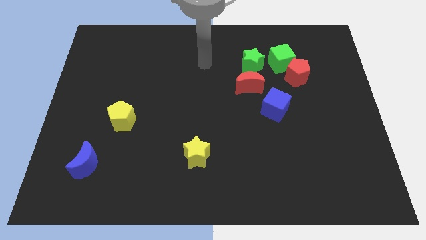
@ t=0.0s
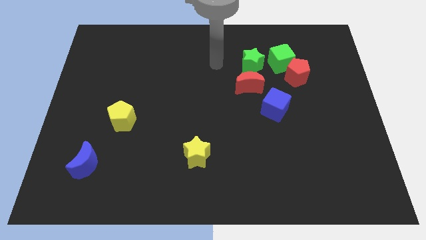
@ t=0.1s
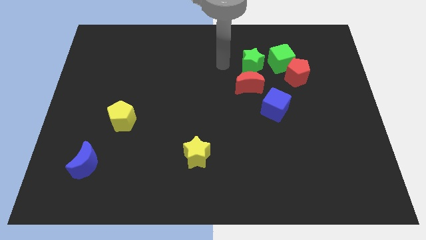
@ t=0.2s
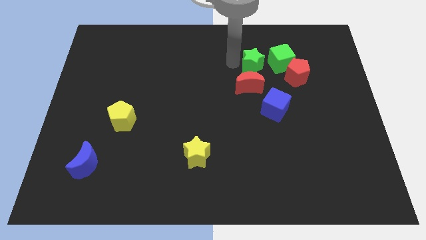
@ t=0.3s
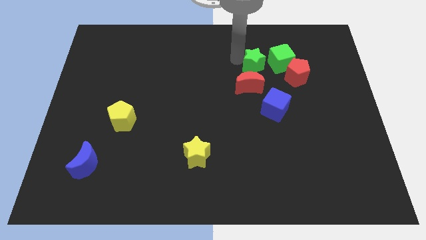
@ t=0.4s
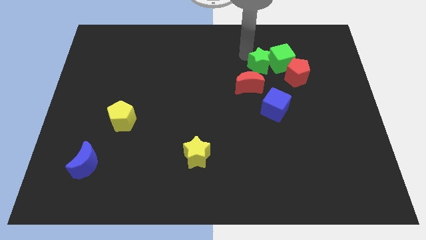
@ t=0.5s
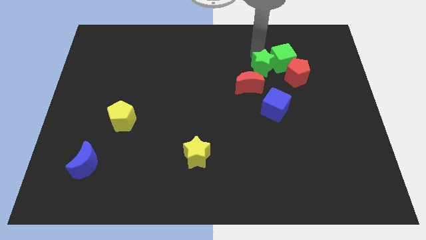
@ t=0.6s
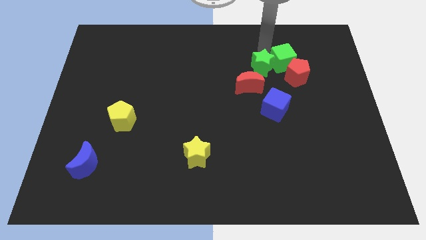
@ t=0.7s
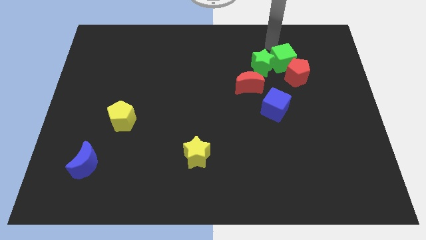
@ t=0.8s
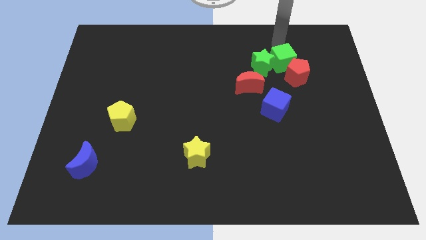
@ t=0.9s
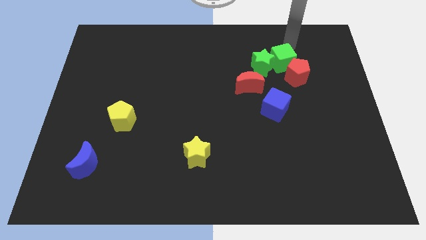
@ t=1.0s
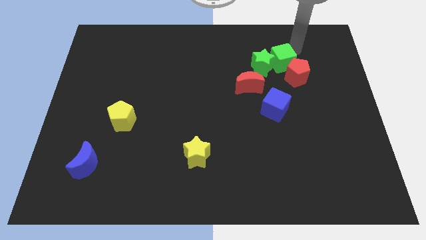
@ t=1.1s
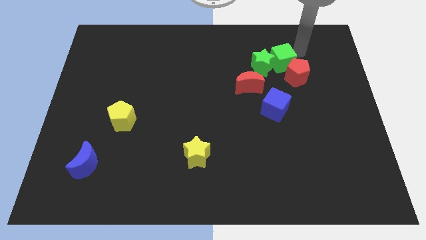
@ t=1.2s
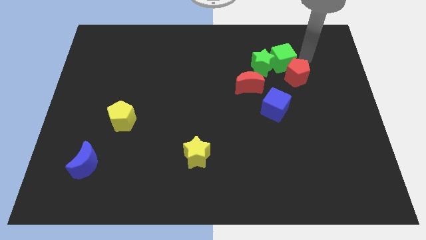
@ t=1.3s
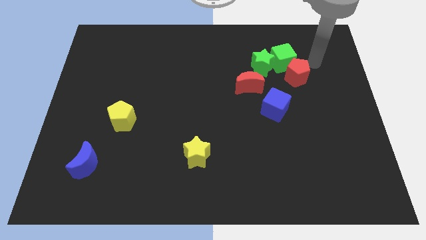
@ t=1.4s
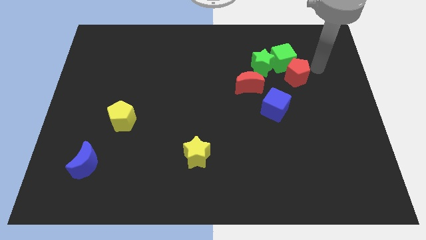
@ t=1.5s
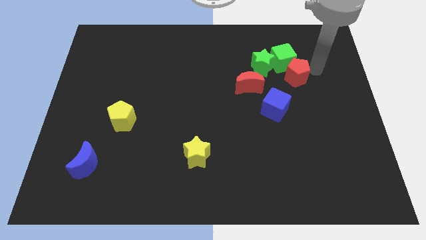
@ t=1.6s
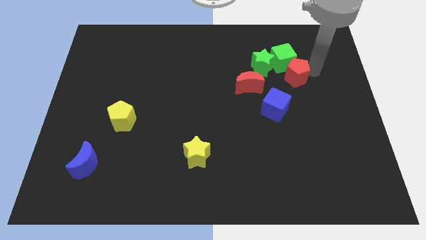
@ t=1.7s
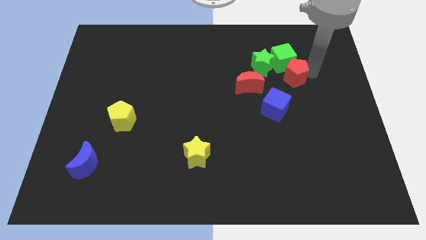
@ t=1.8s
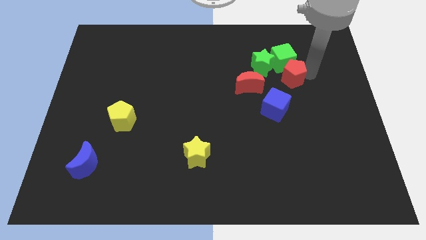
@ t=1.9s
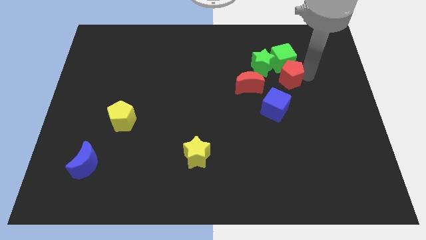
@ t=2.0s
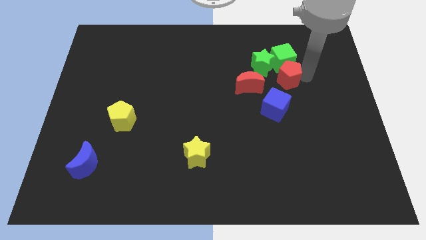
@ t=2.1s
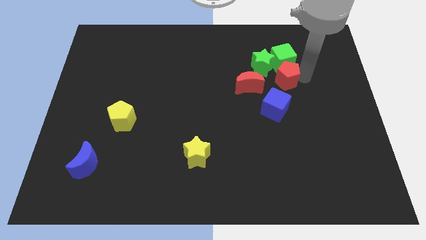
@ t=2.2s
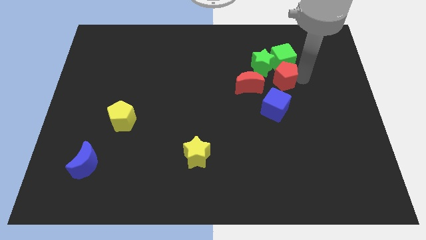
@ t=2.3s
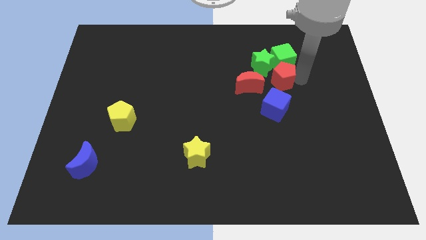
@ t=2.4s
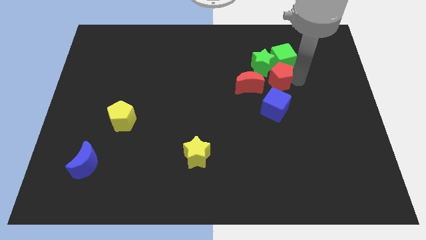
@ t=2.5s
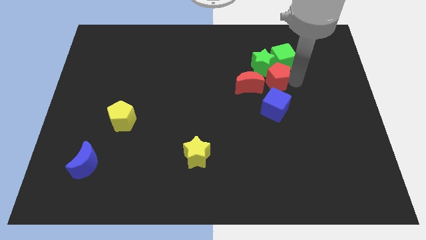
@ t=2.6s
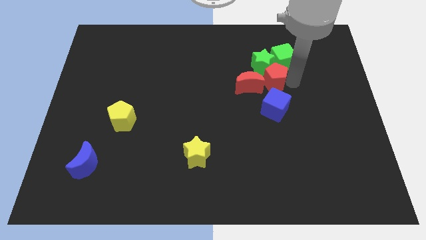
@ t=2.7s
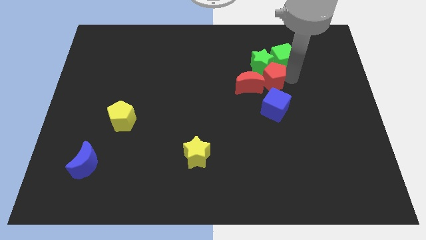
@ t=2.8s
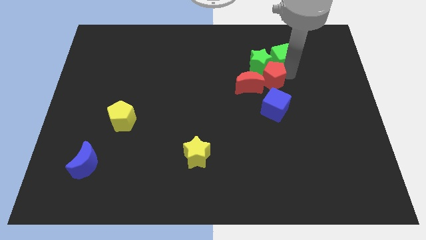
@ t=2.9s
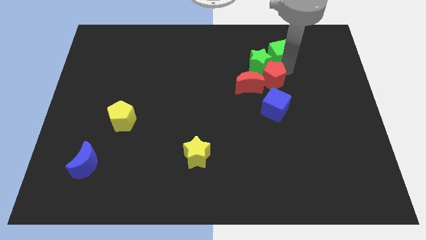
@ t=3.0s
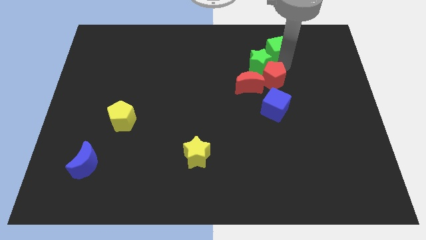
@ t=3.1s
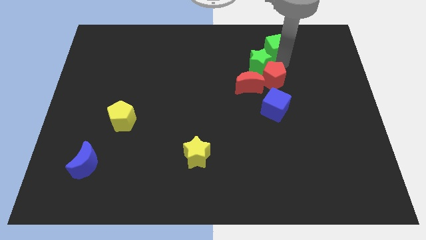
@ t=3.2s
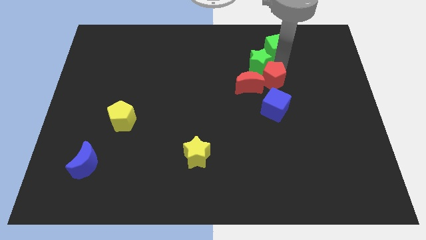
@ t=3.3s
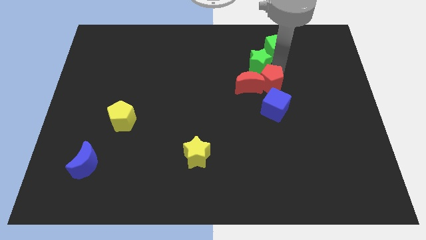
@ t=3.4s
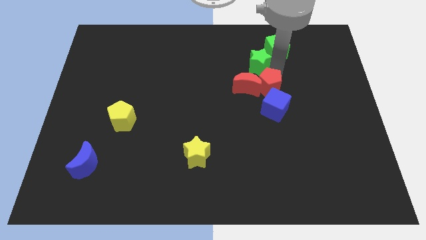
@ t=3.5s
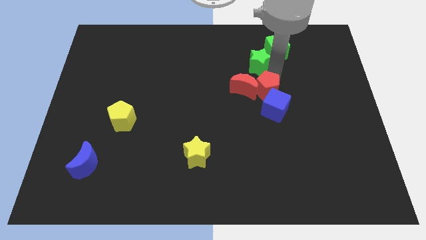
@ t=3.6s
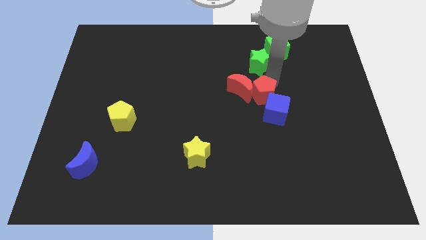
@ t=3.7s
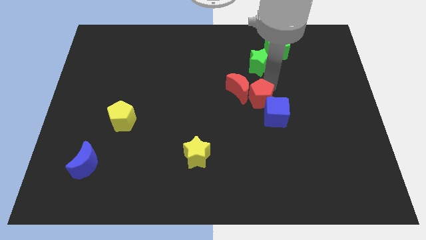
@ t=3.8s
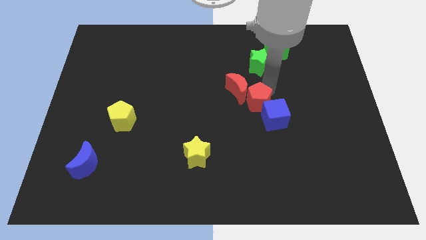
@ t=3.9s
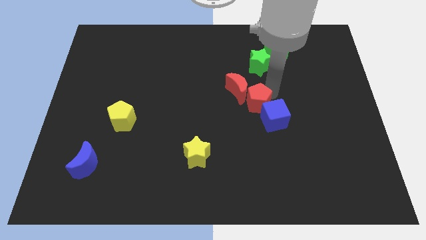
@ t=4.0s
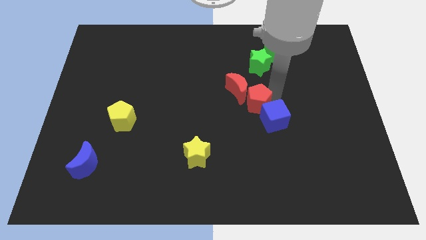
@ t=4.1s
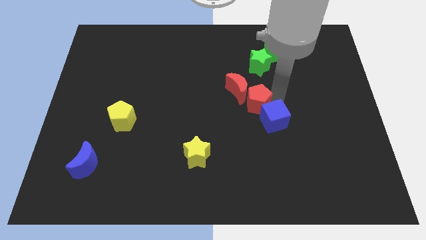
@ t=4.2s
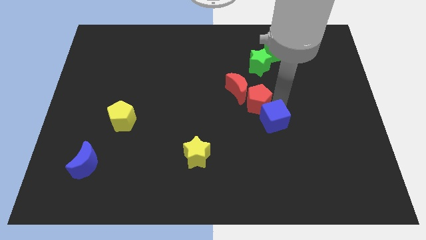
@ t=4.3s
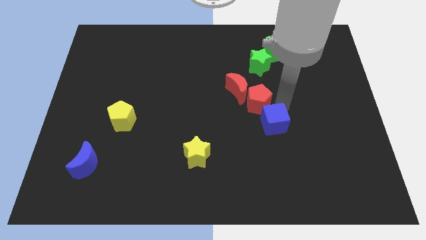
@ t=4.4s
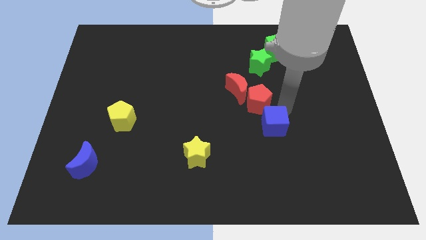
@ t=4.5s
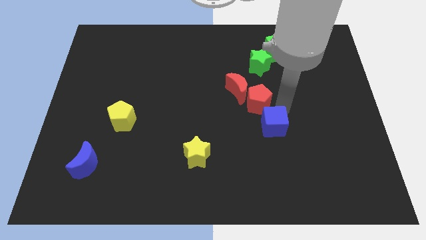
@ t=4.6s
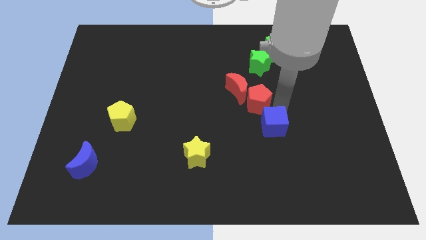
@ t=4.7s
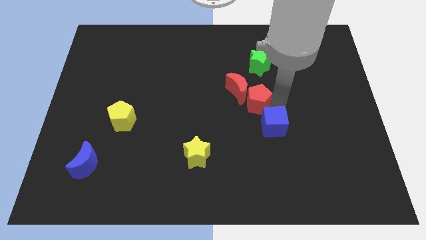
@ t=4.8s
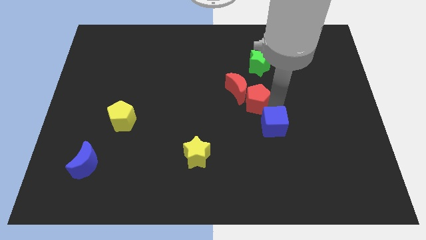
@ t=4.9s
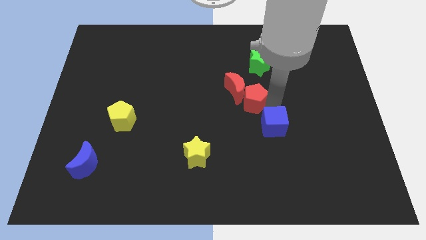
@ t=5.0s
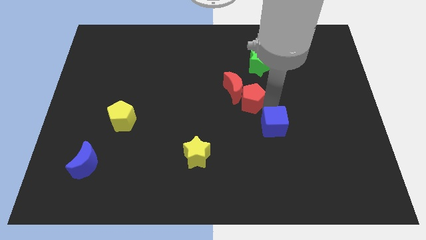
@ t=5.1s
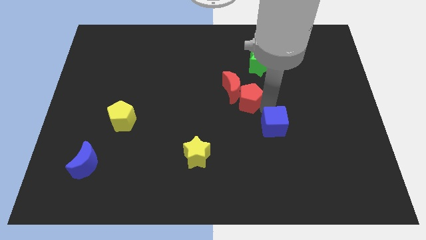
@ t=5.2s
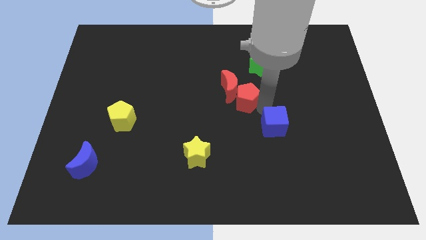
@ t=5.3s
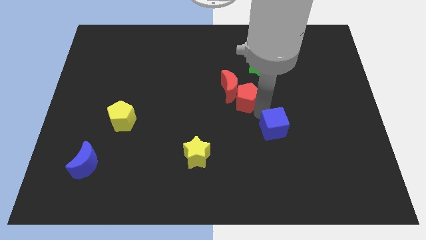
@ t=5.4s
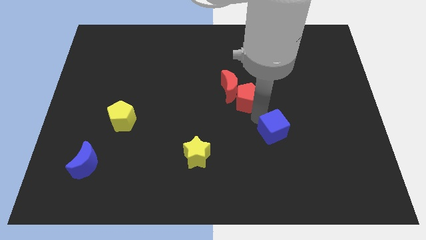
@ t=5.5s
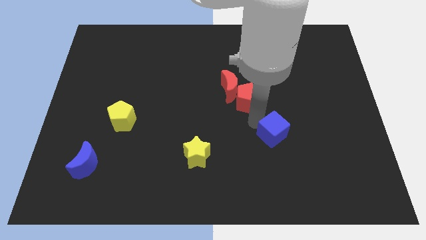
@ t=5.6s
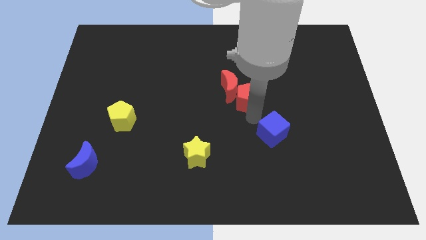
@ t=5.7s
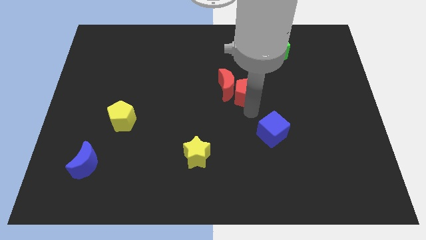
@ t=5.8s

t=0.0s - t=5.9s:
slide the red pentagon to the bottom left side of the green star

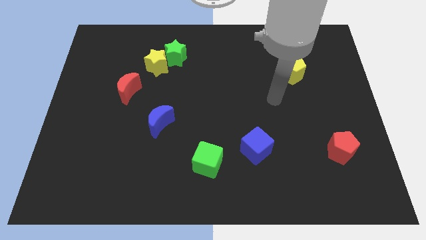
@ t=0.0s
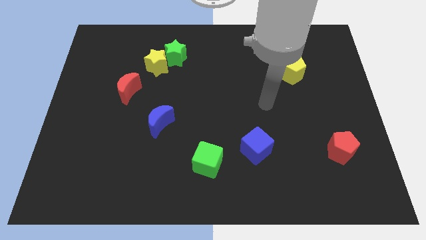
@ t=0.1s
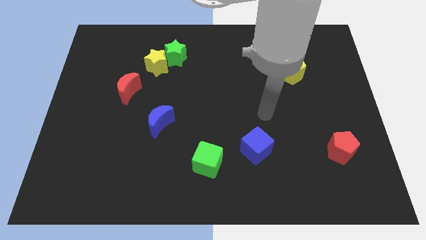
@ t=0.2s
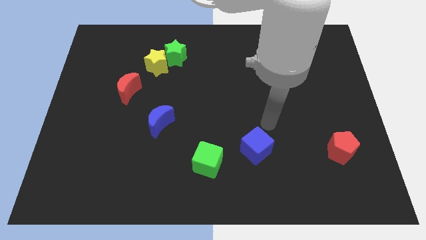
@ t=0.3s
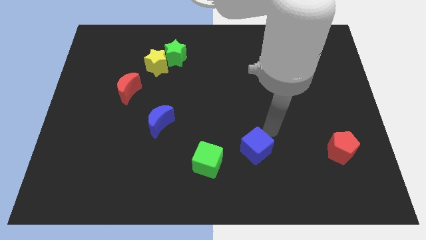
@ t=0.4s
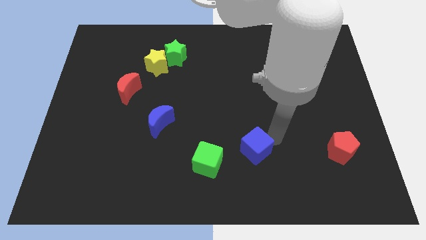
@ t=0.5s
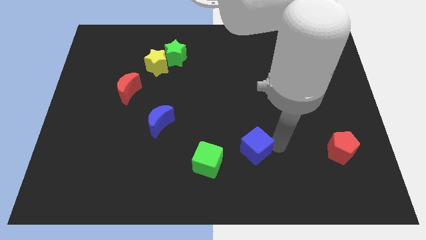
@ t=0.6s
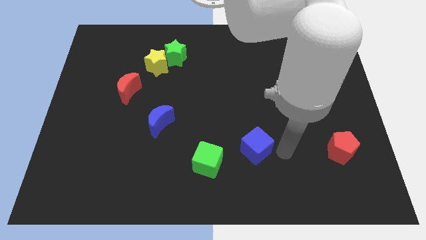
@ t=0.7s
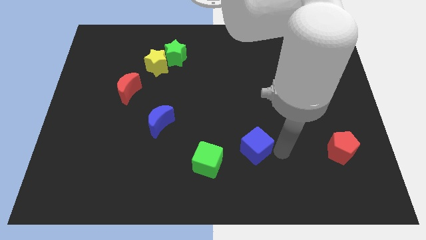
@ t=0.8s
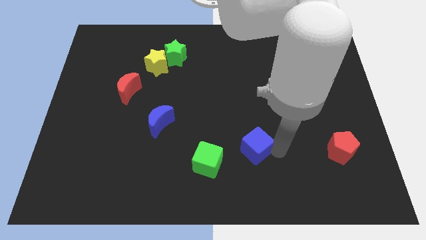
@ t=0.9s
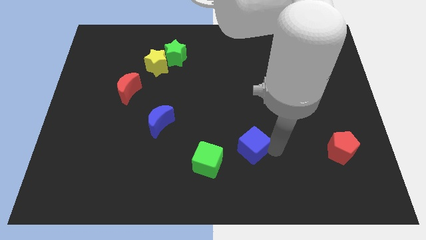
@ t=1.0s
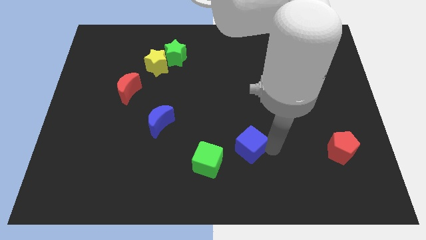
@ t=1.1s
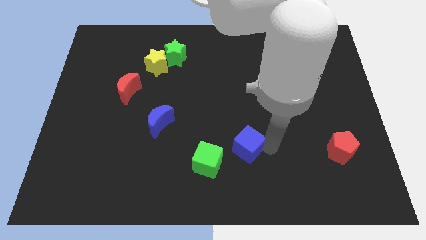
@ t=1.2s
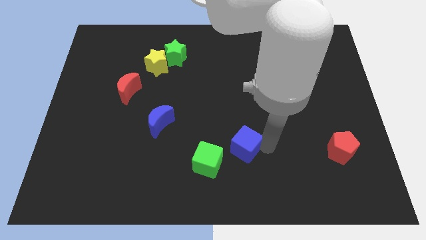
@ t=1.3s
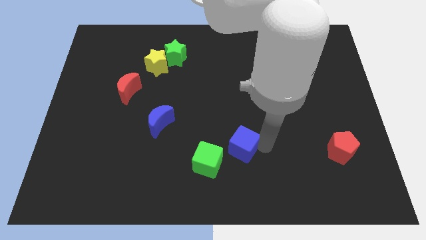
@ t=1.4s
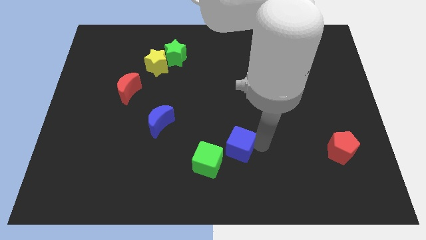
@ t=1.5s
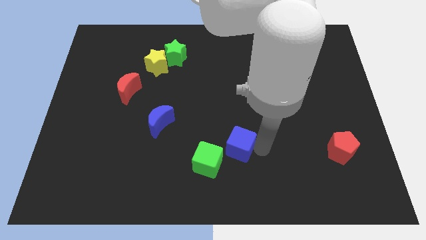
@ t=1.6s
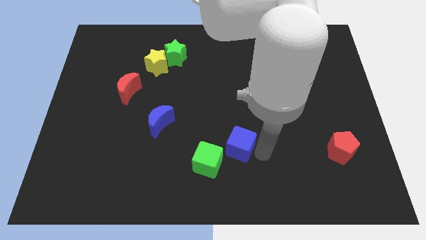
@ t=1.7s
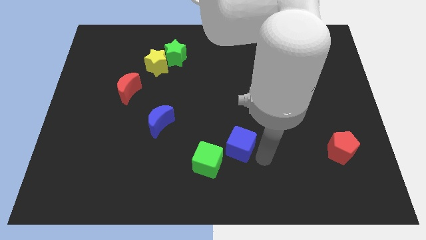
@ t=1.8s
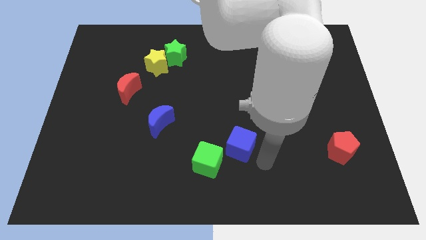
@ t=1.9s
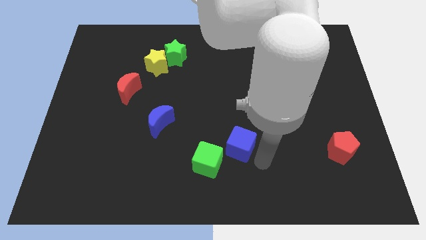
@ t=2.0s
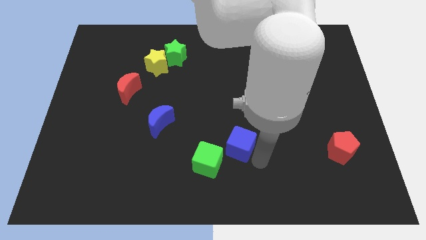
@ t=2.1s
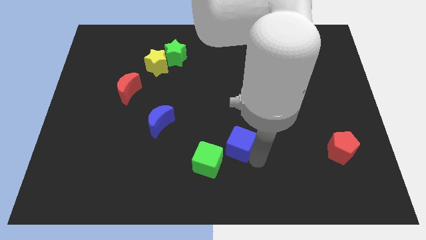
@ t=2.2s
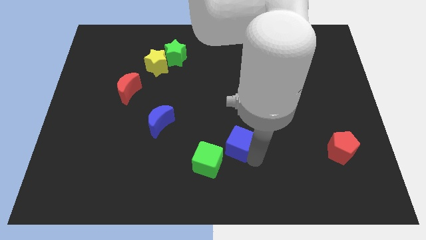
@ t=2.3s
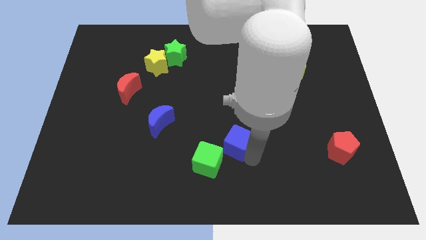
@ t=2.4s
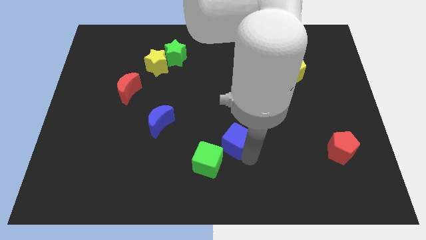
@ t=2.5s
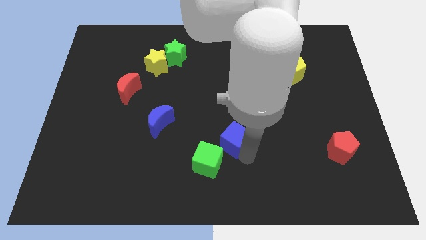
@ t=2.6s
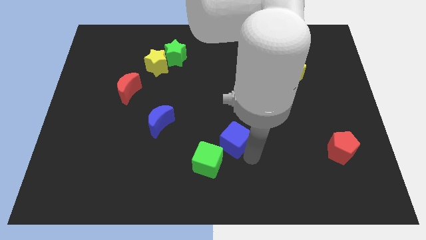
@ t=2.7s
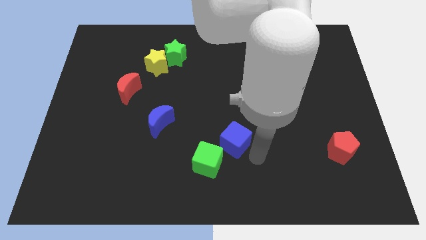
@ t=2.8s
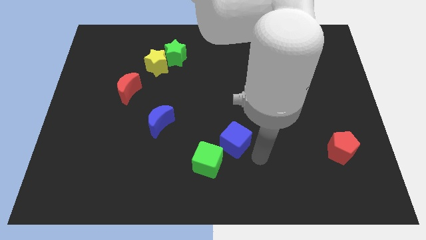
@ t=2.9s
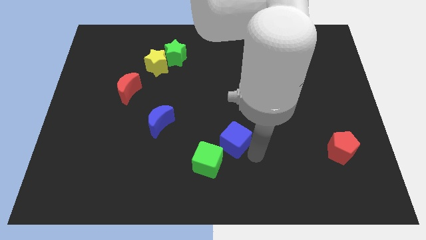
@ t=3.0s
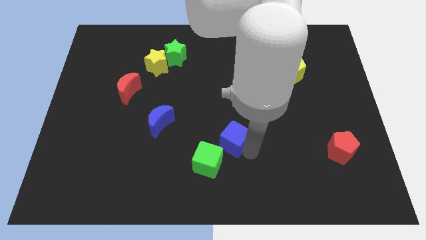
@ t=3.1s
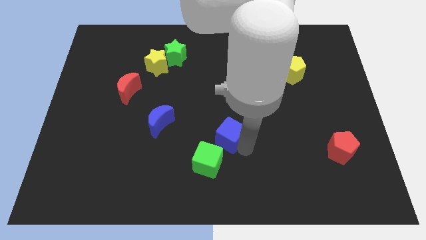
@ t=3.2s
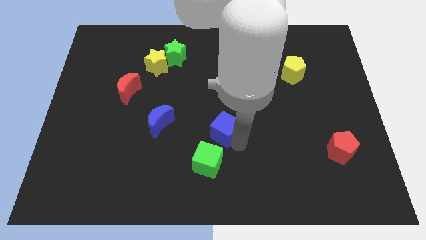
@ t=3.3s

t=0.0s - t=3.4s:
move the blue cube right of the blue moon
